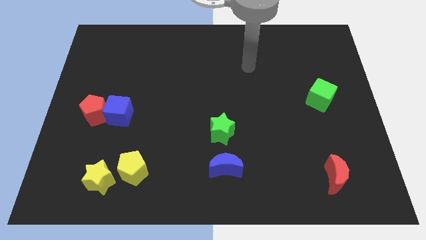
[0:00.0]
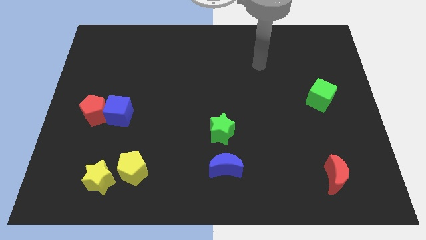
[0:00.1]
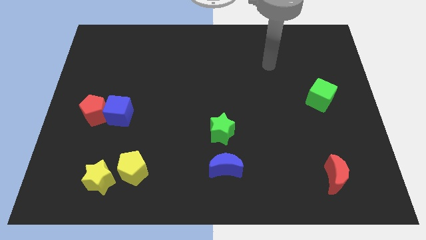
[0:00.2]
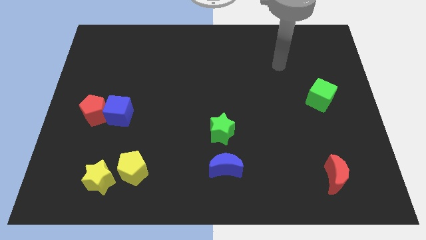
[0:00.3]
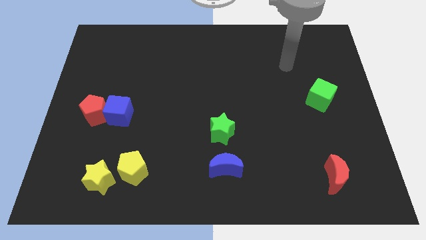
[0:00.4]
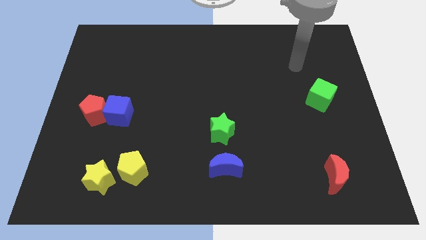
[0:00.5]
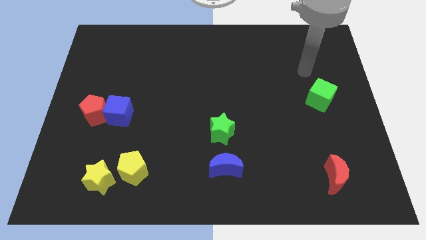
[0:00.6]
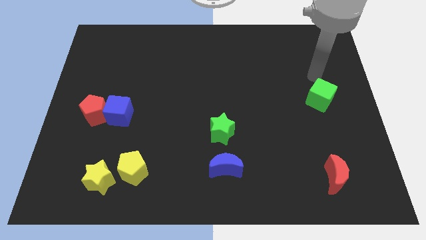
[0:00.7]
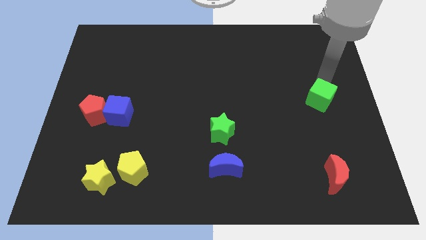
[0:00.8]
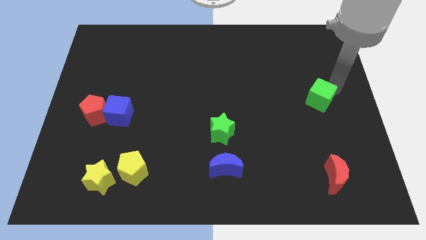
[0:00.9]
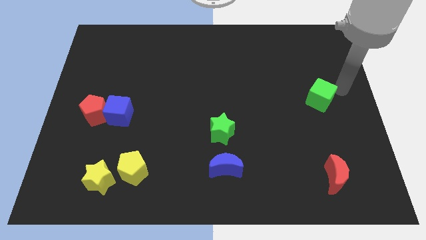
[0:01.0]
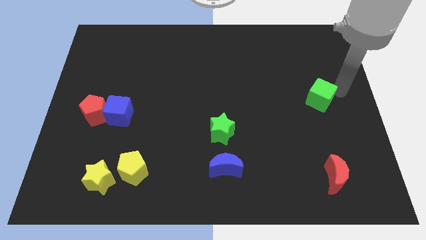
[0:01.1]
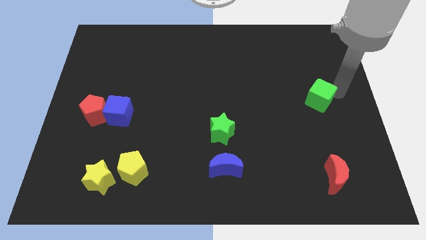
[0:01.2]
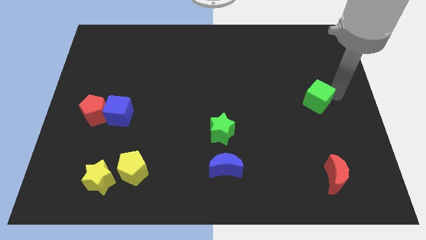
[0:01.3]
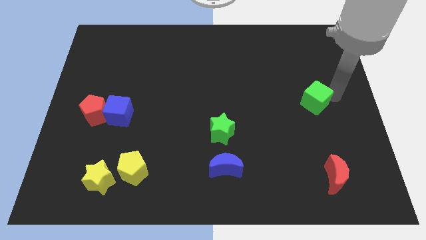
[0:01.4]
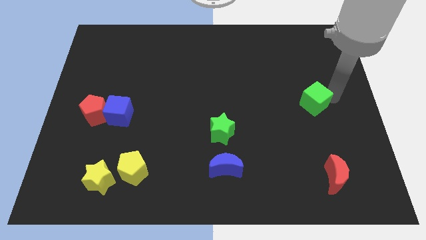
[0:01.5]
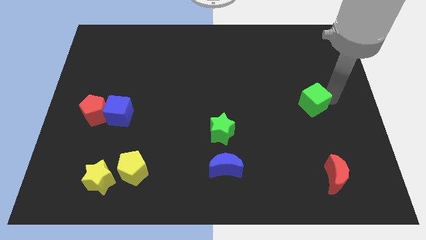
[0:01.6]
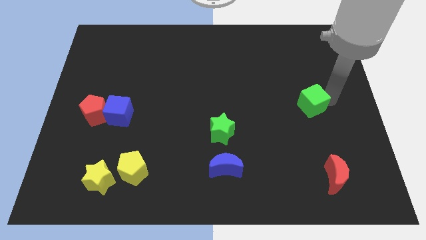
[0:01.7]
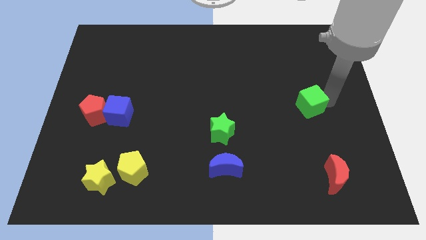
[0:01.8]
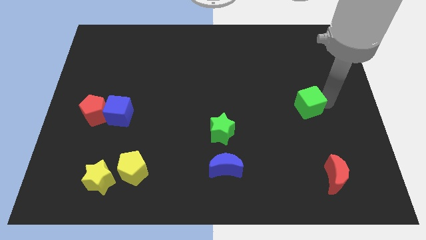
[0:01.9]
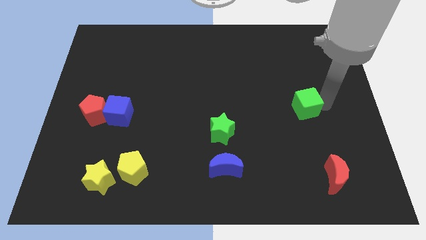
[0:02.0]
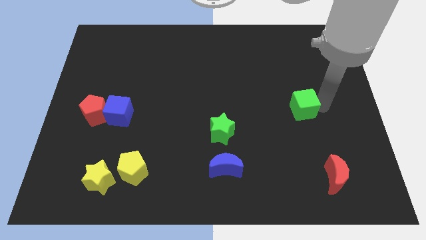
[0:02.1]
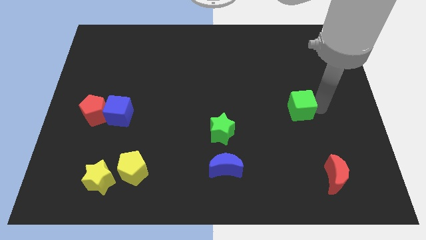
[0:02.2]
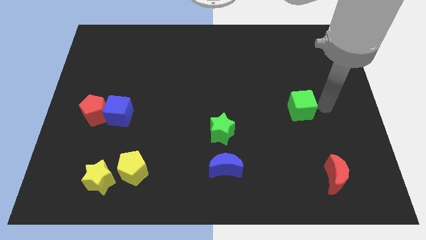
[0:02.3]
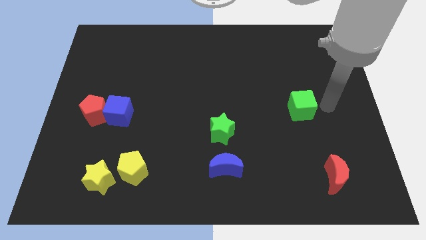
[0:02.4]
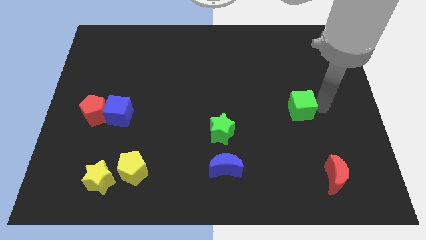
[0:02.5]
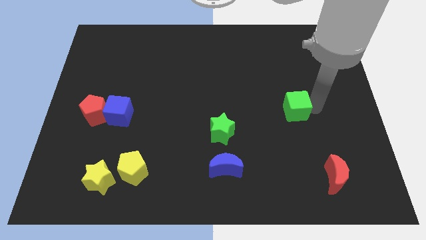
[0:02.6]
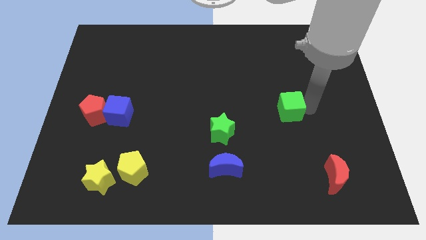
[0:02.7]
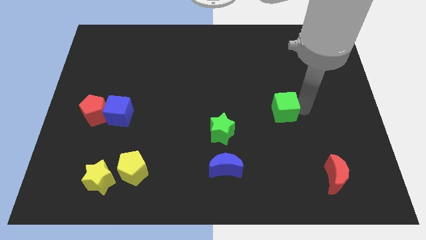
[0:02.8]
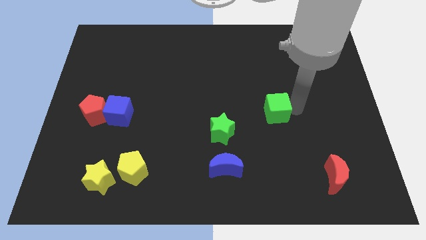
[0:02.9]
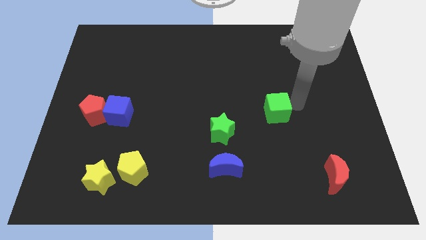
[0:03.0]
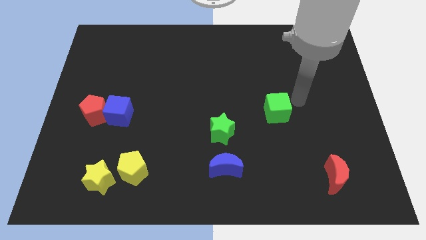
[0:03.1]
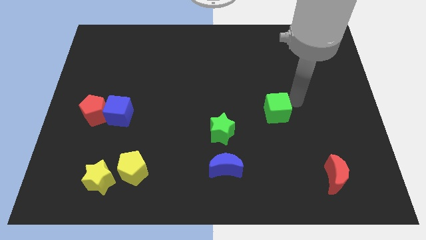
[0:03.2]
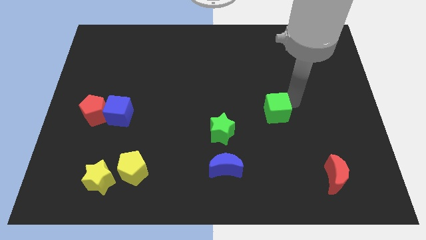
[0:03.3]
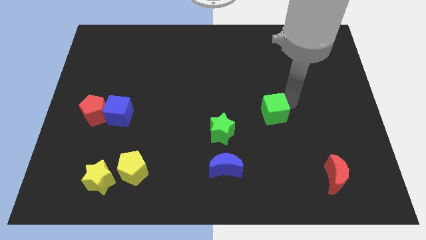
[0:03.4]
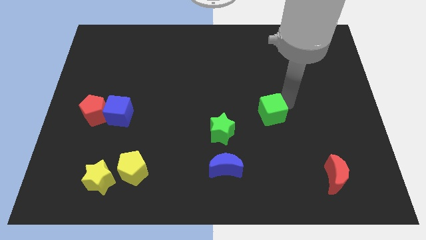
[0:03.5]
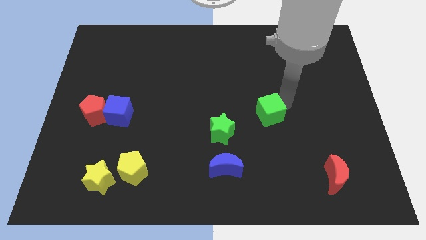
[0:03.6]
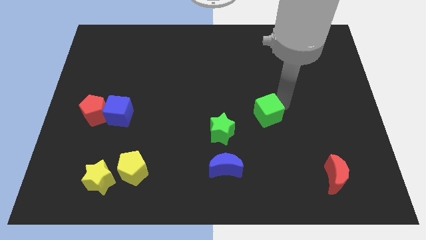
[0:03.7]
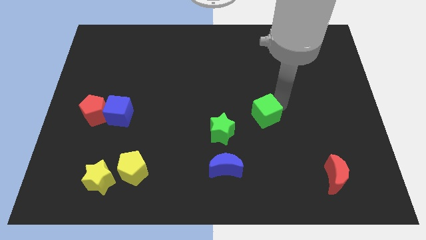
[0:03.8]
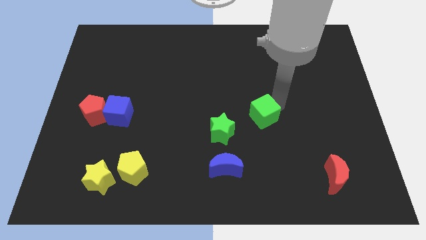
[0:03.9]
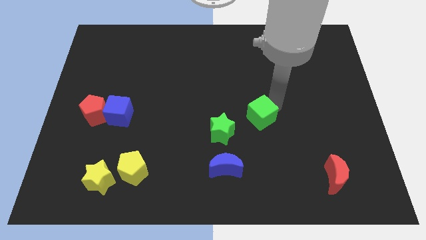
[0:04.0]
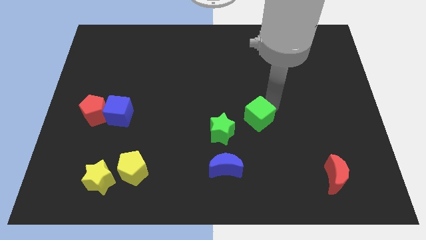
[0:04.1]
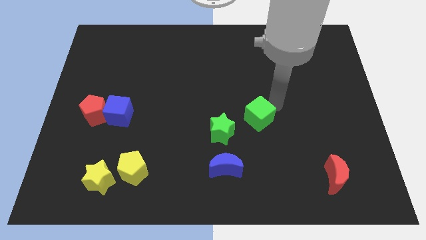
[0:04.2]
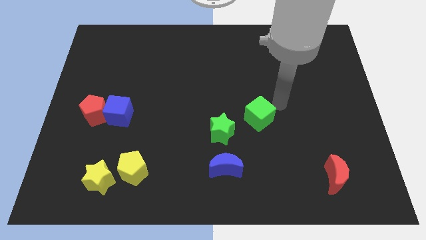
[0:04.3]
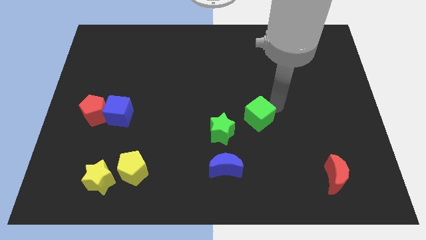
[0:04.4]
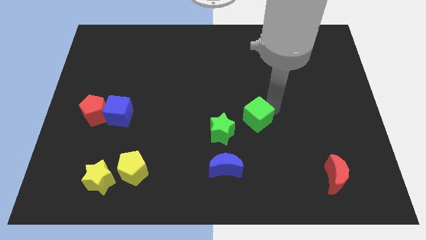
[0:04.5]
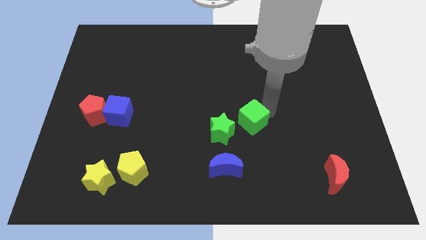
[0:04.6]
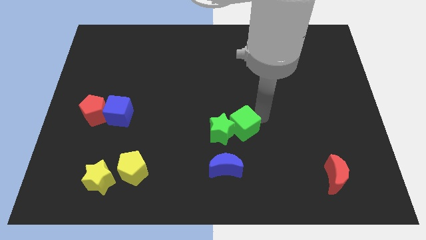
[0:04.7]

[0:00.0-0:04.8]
put the green cube close to the green star

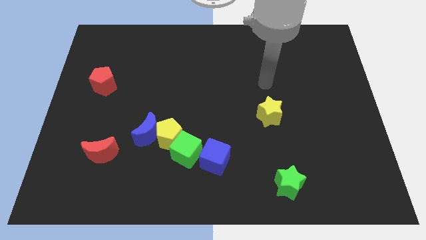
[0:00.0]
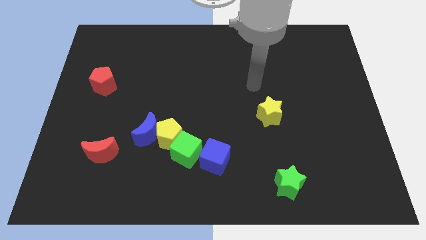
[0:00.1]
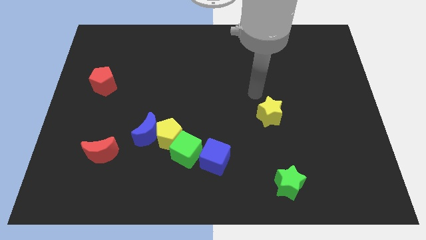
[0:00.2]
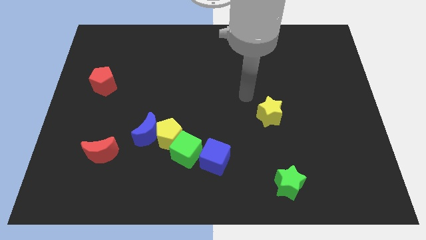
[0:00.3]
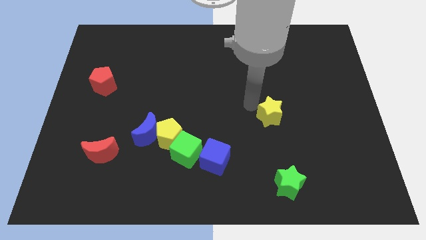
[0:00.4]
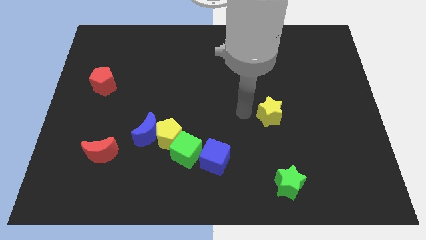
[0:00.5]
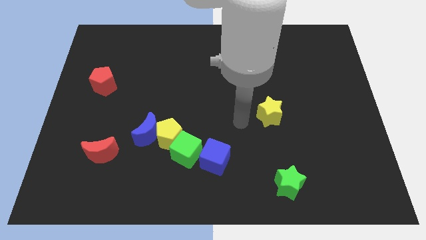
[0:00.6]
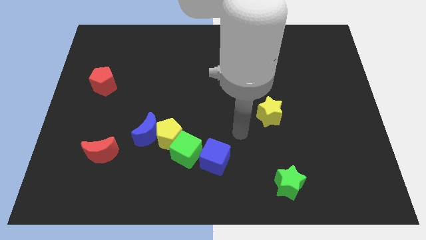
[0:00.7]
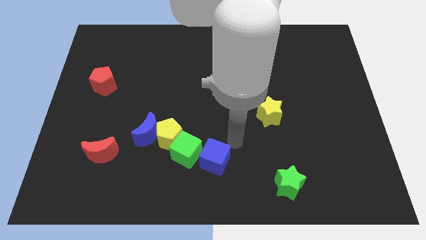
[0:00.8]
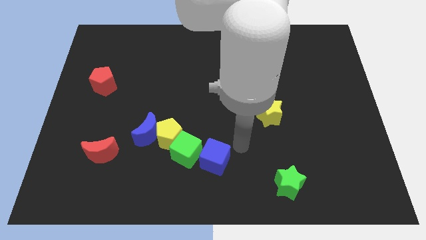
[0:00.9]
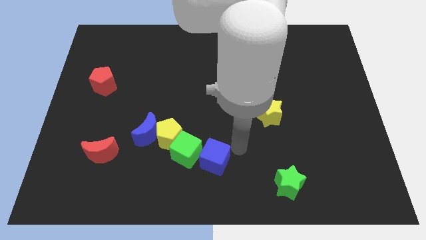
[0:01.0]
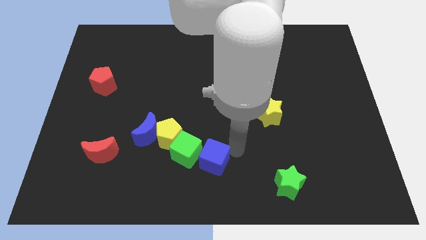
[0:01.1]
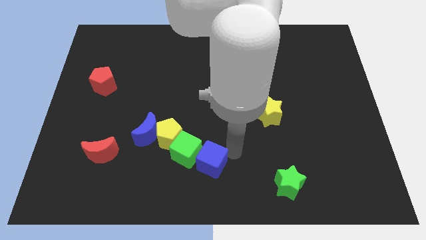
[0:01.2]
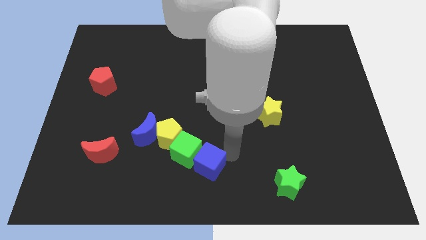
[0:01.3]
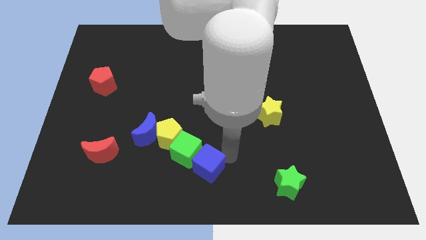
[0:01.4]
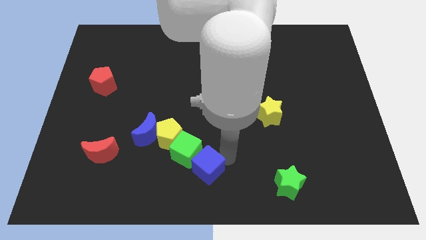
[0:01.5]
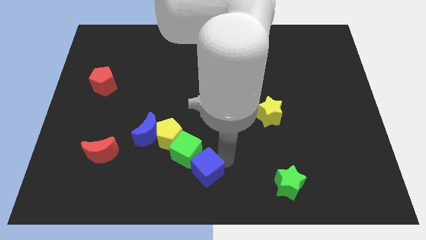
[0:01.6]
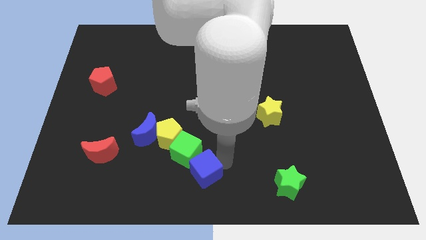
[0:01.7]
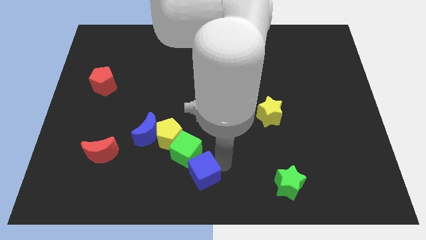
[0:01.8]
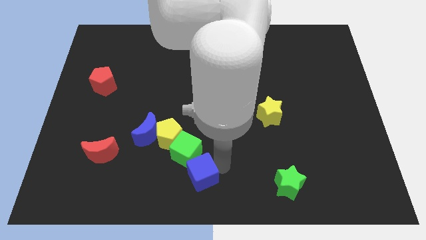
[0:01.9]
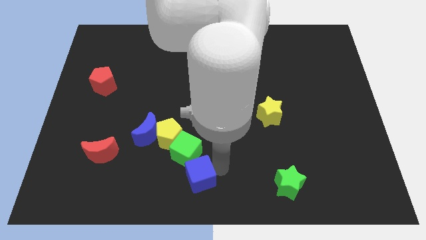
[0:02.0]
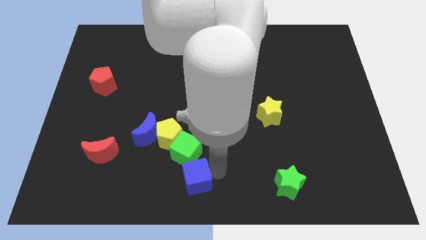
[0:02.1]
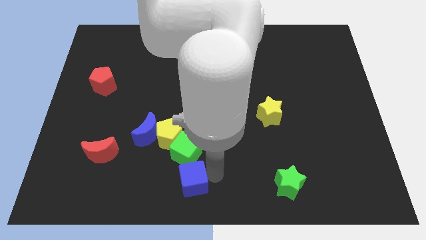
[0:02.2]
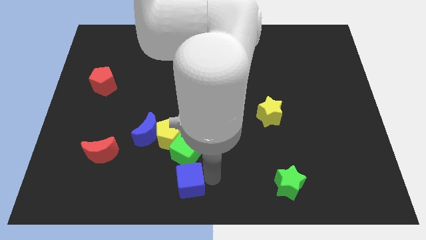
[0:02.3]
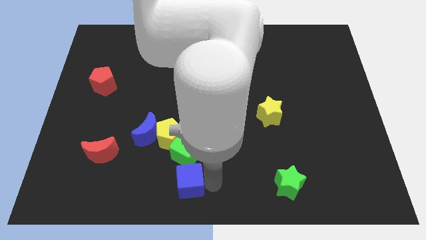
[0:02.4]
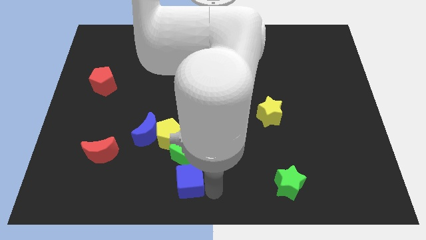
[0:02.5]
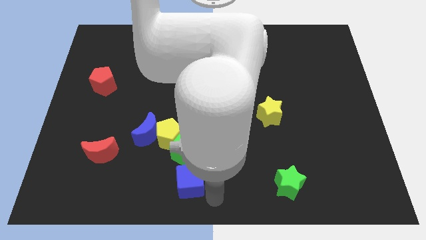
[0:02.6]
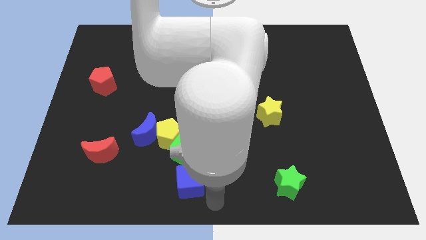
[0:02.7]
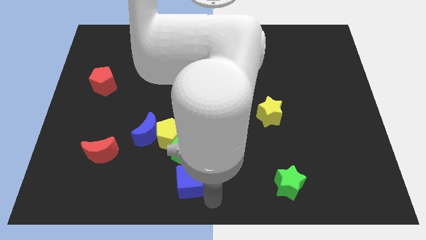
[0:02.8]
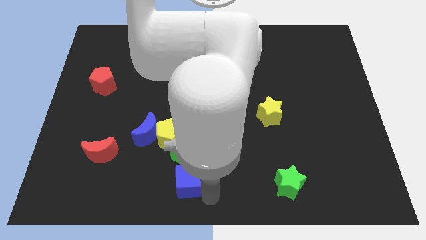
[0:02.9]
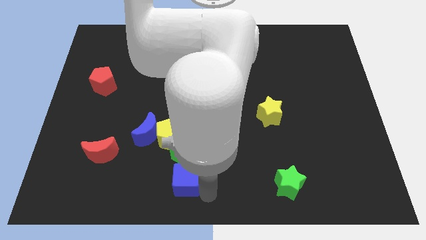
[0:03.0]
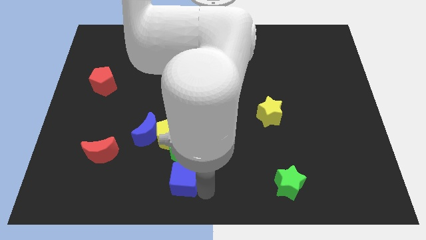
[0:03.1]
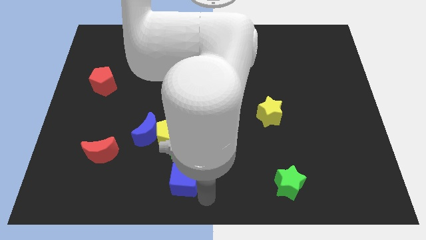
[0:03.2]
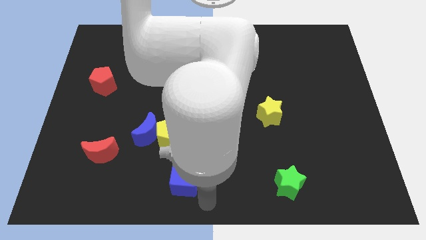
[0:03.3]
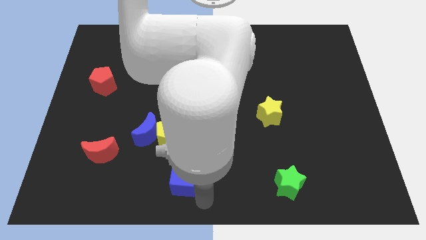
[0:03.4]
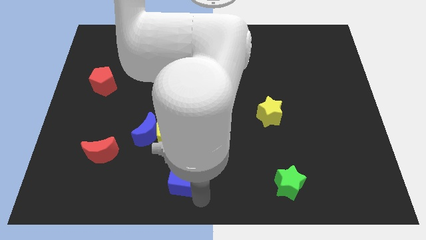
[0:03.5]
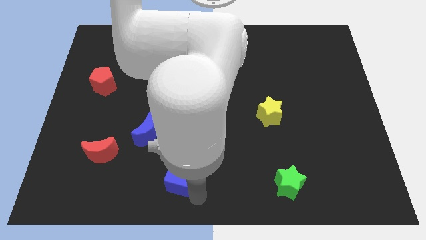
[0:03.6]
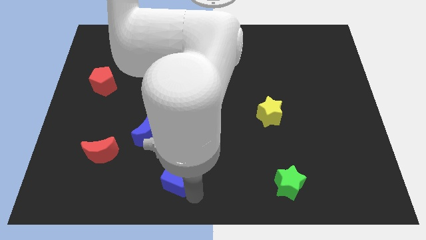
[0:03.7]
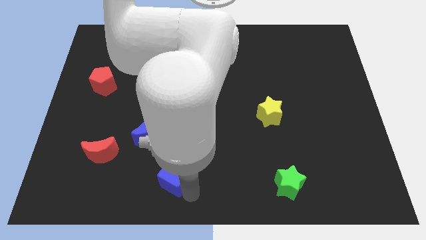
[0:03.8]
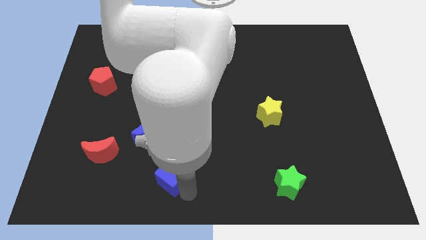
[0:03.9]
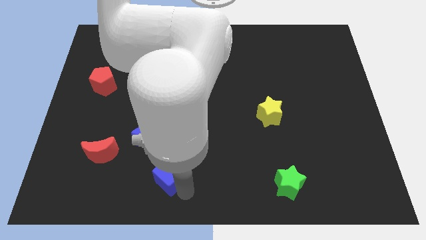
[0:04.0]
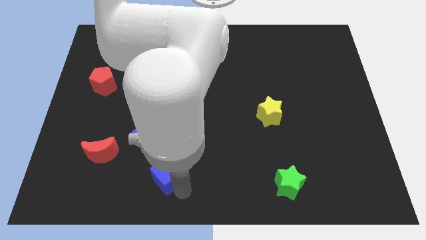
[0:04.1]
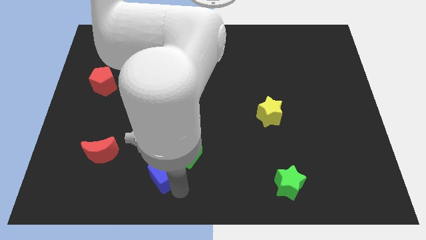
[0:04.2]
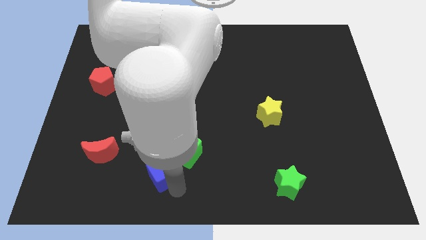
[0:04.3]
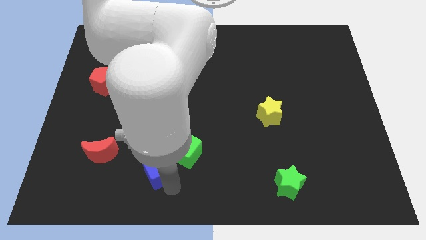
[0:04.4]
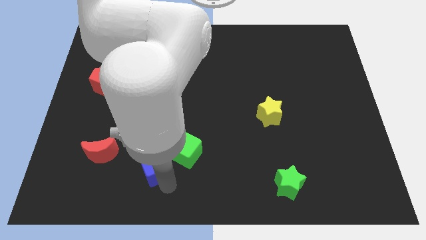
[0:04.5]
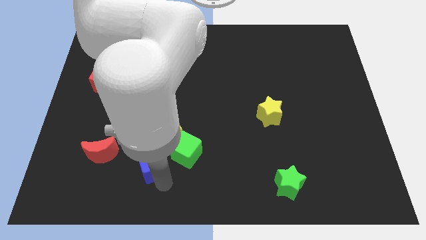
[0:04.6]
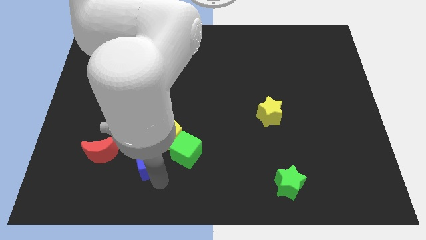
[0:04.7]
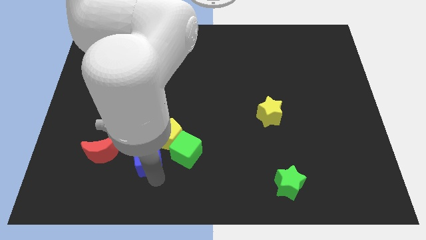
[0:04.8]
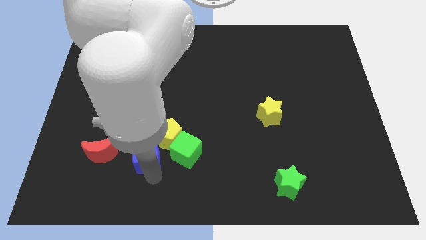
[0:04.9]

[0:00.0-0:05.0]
push the blue cube to the blue moon
